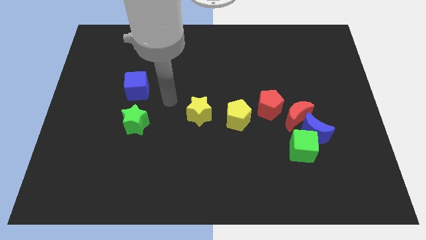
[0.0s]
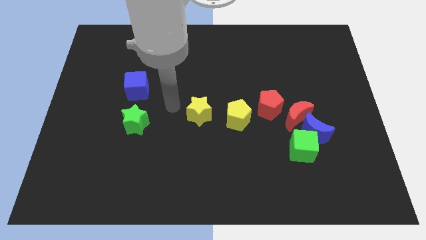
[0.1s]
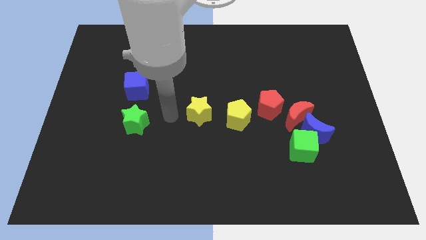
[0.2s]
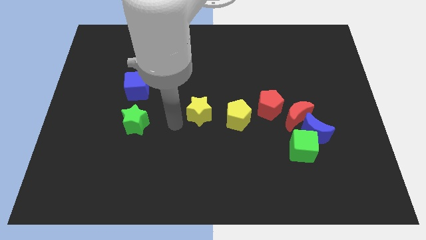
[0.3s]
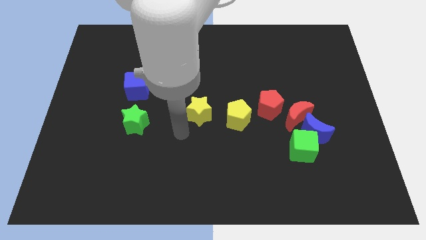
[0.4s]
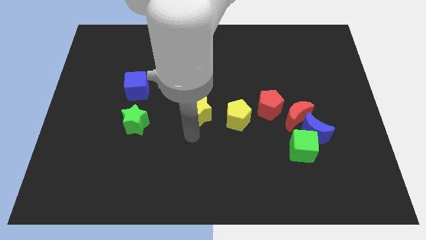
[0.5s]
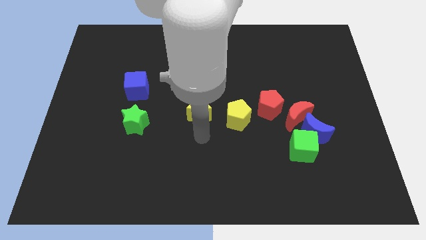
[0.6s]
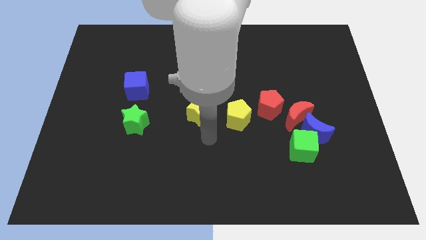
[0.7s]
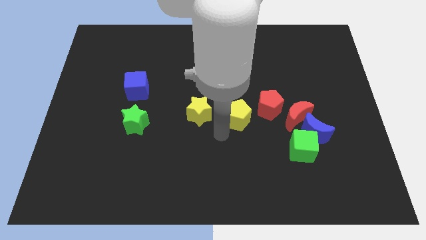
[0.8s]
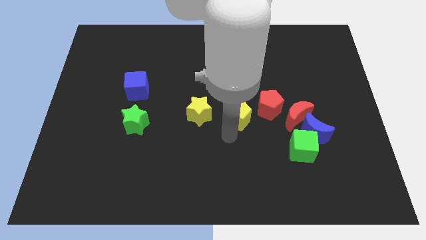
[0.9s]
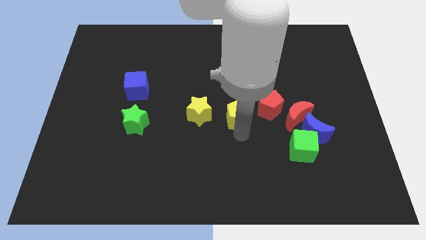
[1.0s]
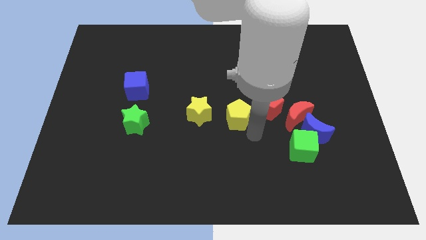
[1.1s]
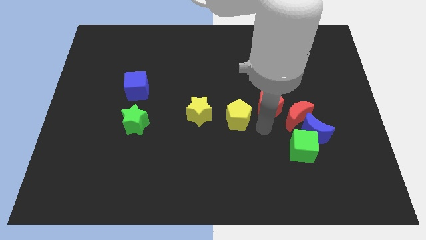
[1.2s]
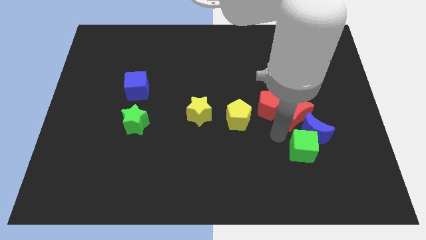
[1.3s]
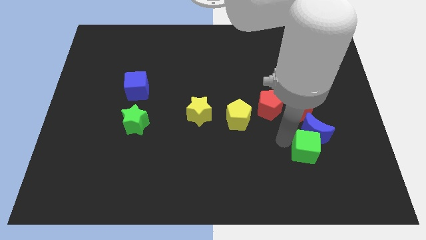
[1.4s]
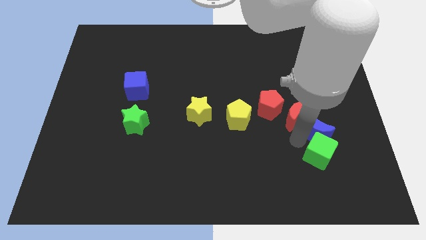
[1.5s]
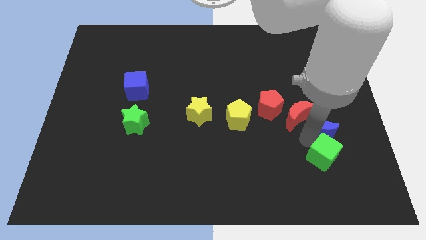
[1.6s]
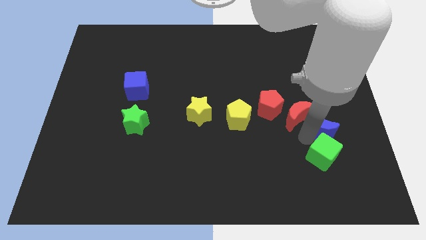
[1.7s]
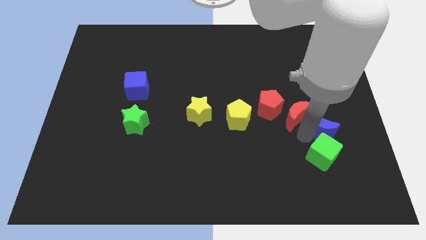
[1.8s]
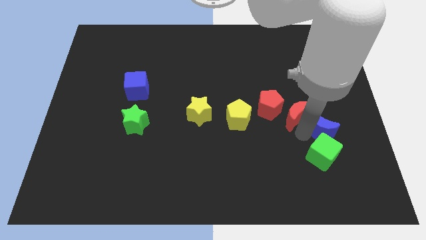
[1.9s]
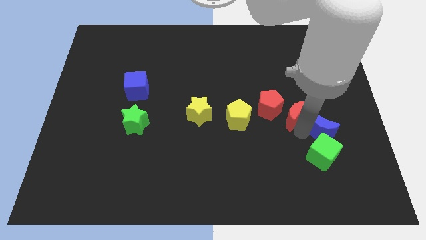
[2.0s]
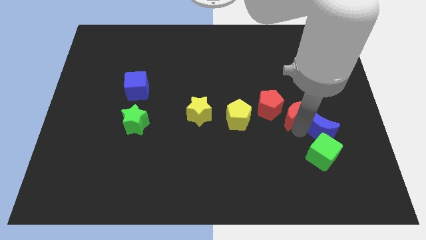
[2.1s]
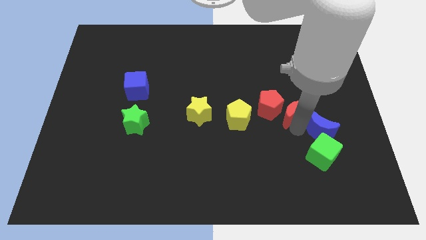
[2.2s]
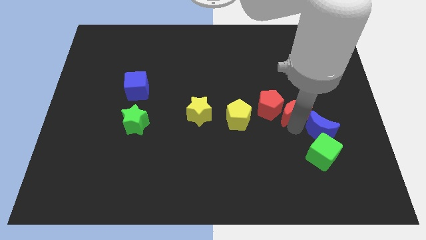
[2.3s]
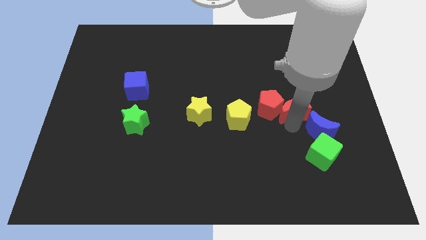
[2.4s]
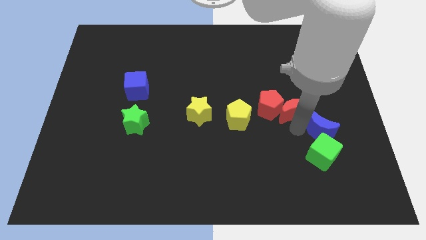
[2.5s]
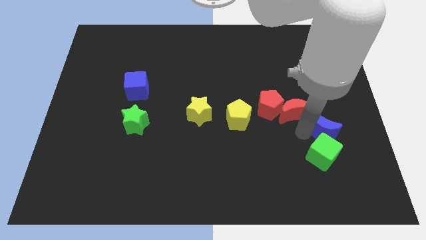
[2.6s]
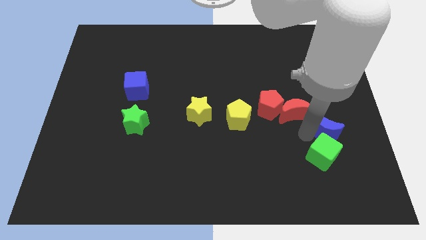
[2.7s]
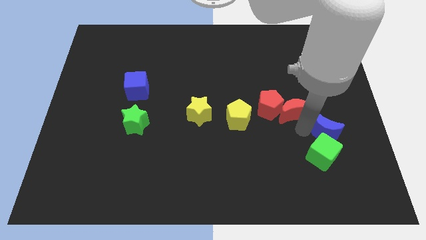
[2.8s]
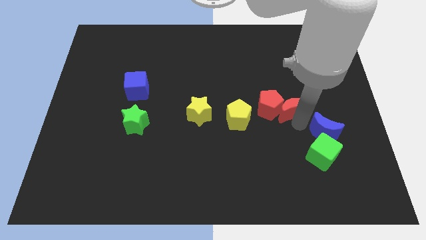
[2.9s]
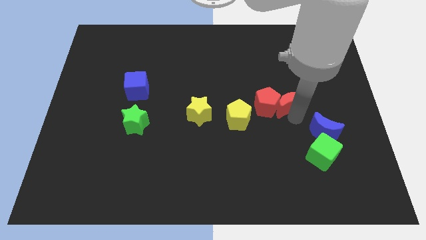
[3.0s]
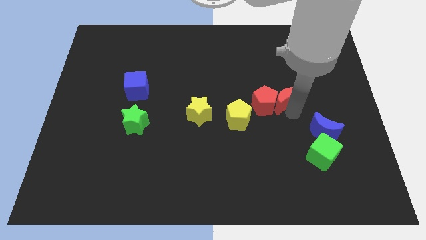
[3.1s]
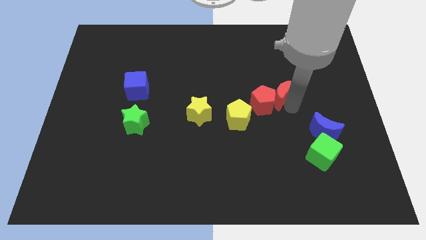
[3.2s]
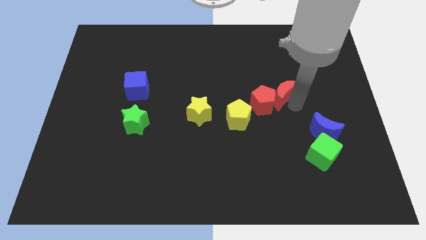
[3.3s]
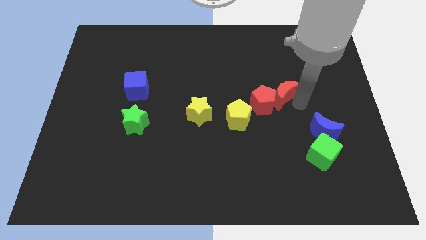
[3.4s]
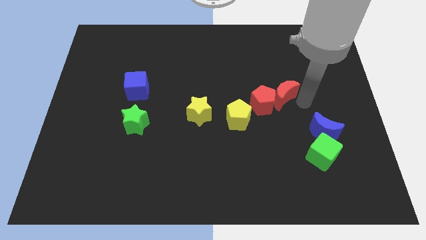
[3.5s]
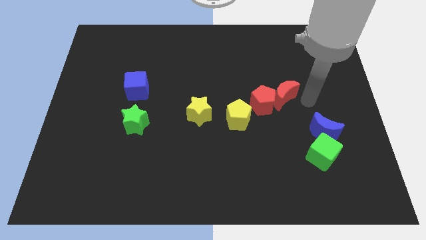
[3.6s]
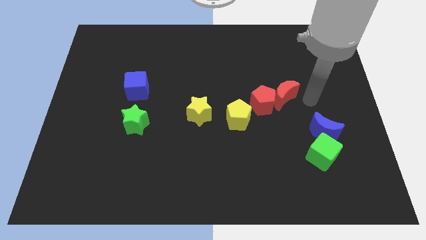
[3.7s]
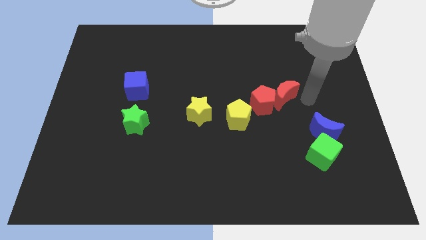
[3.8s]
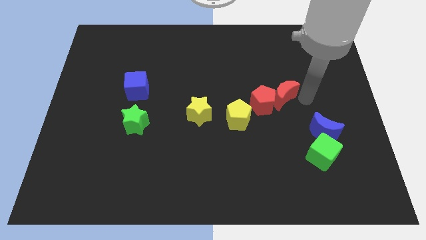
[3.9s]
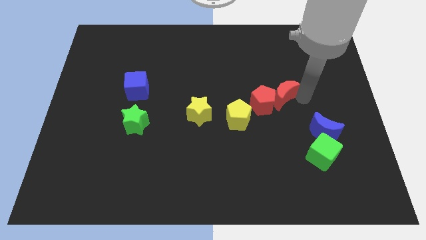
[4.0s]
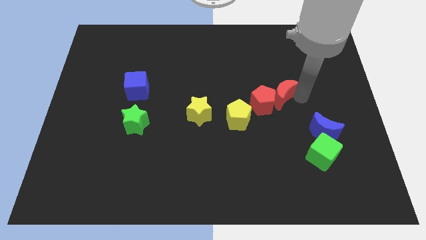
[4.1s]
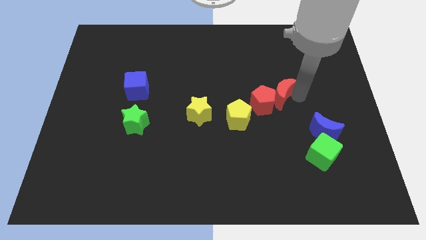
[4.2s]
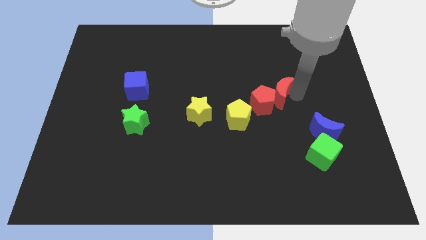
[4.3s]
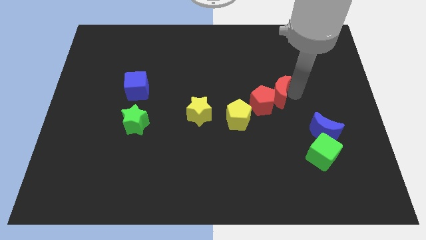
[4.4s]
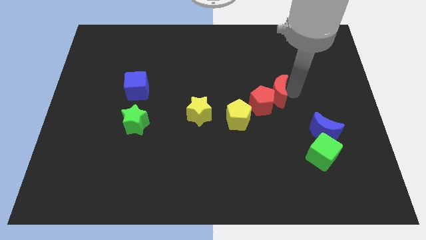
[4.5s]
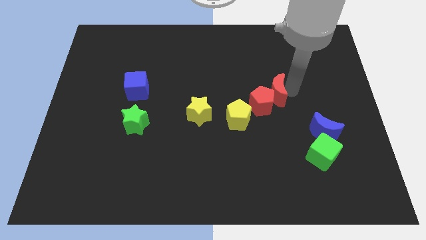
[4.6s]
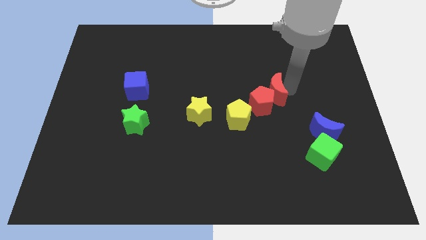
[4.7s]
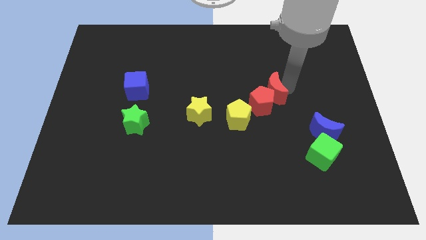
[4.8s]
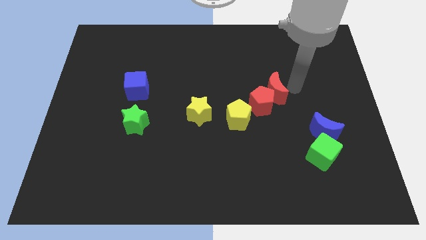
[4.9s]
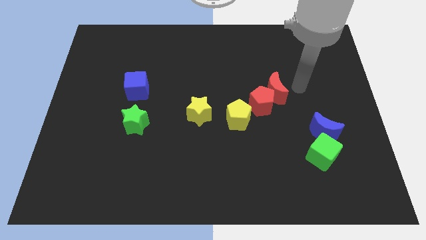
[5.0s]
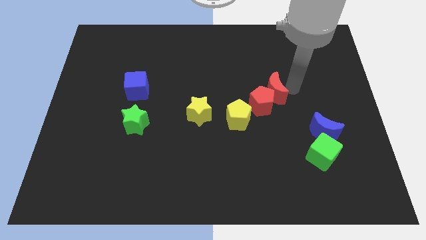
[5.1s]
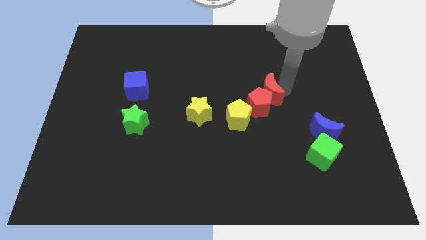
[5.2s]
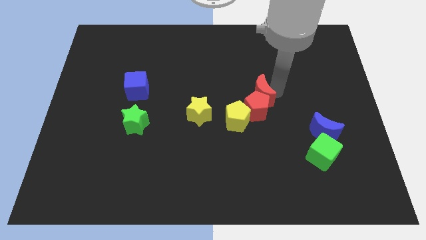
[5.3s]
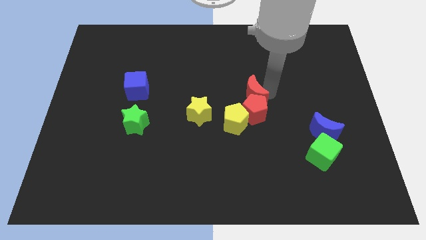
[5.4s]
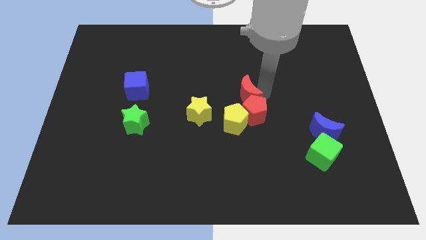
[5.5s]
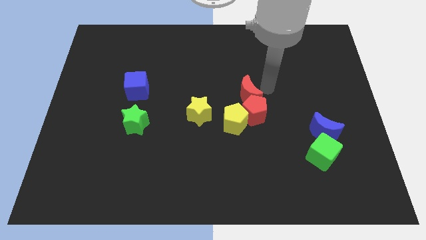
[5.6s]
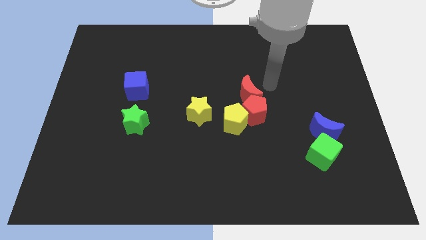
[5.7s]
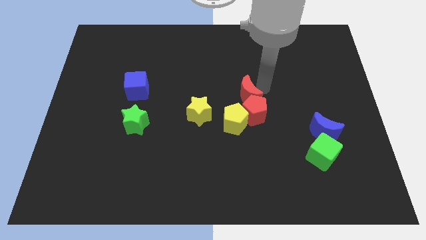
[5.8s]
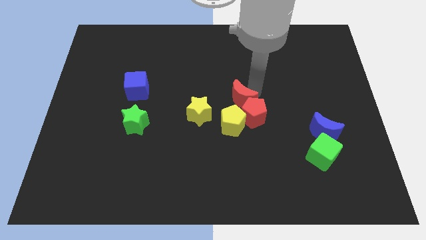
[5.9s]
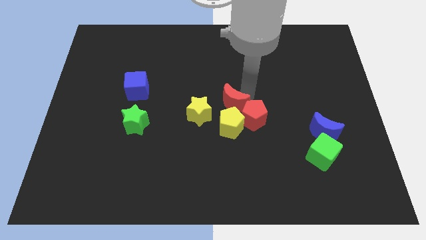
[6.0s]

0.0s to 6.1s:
put the red moon left of the red pentagon

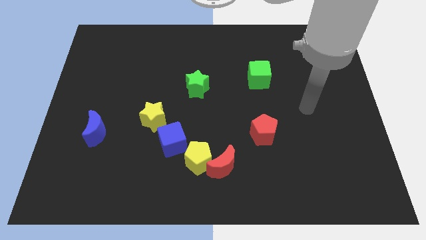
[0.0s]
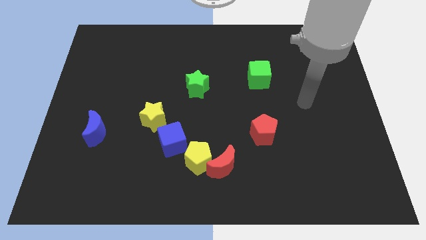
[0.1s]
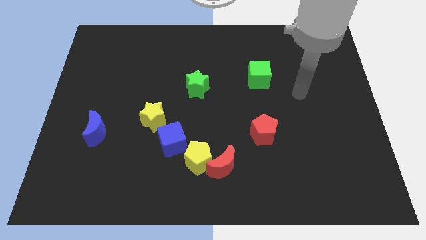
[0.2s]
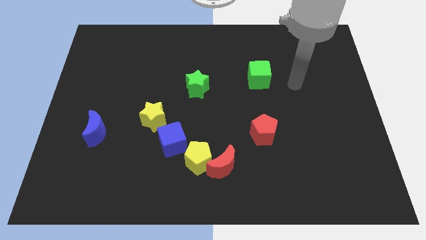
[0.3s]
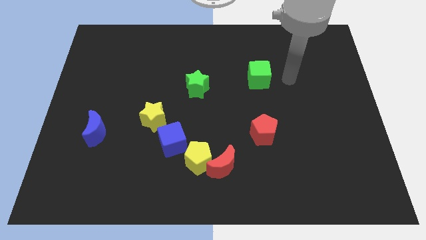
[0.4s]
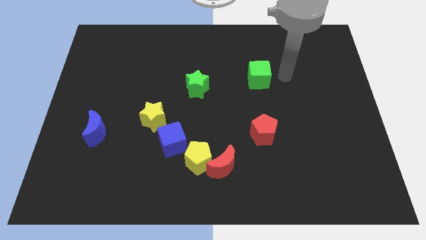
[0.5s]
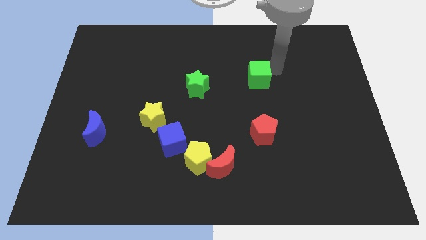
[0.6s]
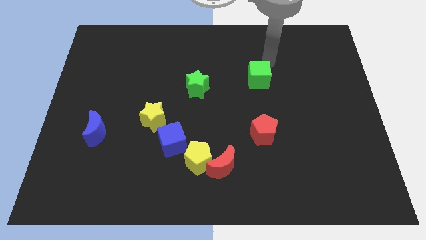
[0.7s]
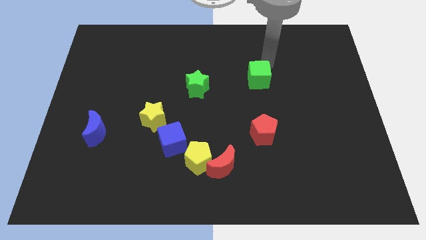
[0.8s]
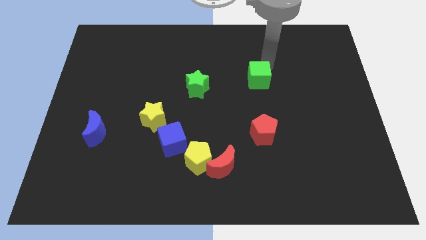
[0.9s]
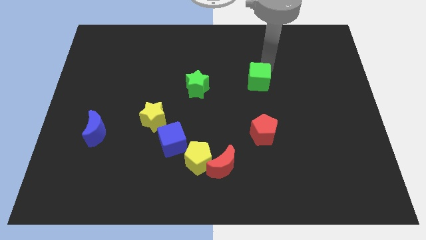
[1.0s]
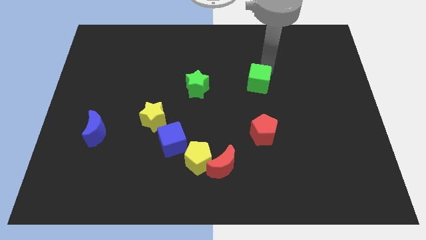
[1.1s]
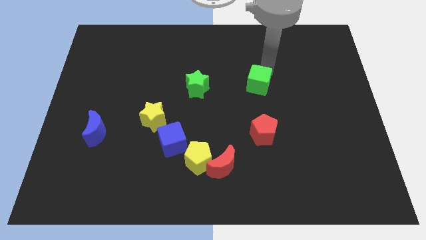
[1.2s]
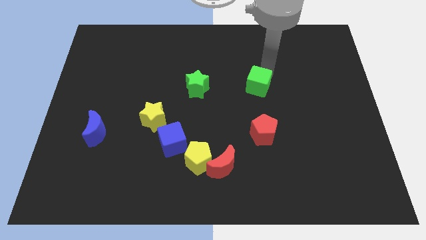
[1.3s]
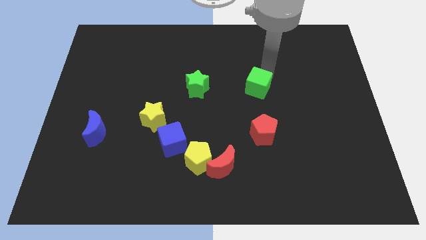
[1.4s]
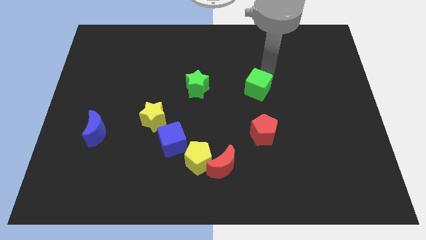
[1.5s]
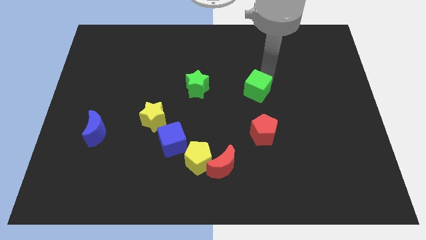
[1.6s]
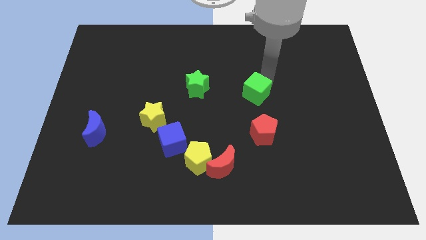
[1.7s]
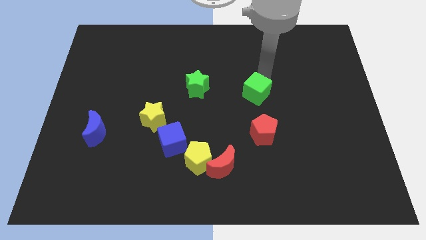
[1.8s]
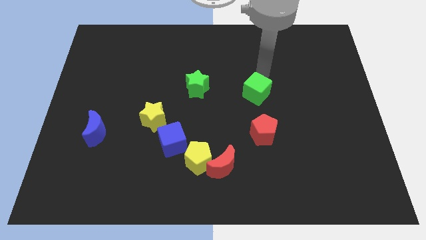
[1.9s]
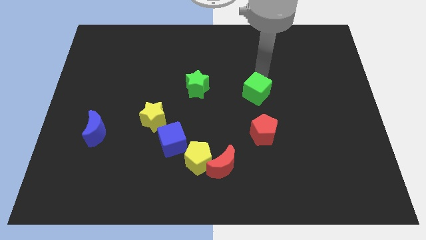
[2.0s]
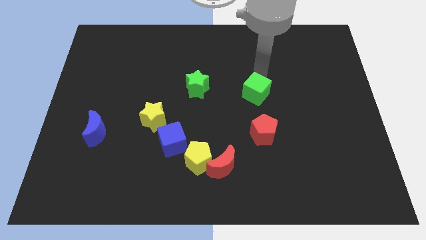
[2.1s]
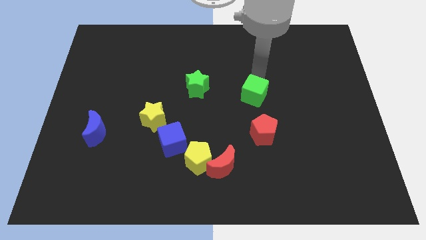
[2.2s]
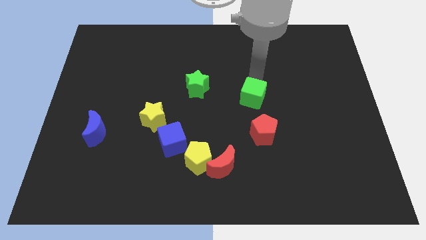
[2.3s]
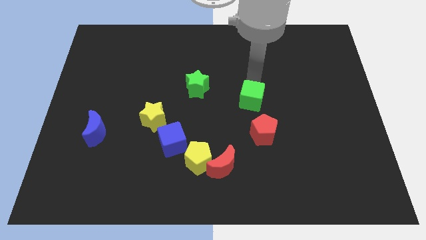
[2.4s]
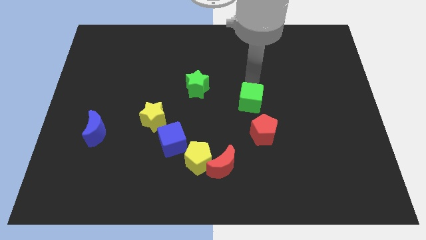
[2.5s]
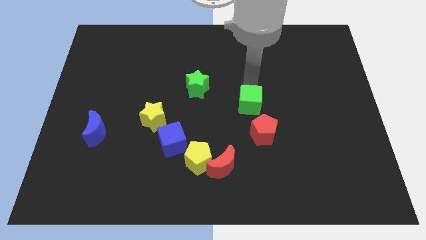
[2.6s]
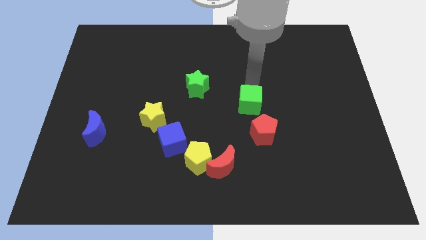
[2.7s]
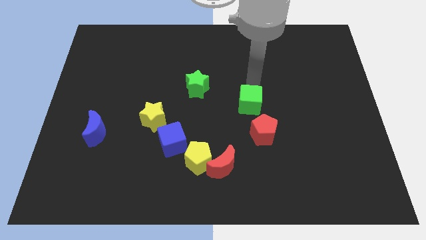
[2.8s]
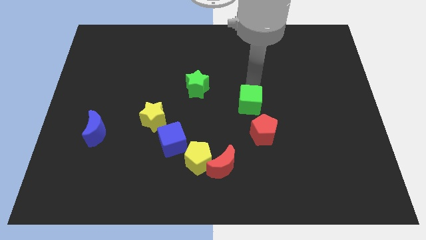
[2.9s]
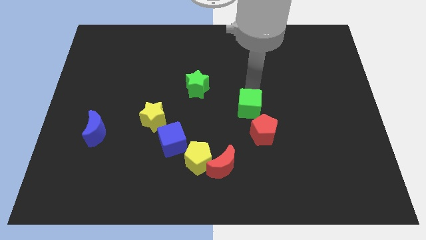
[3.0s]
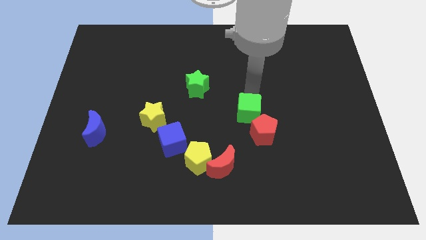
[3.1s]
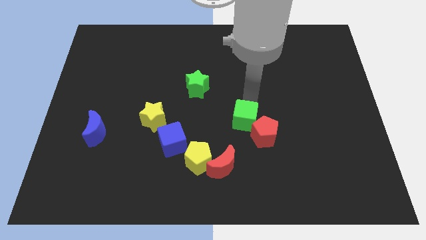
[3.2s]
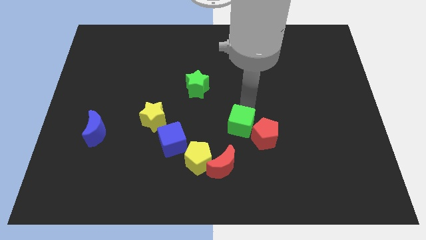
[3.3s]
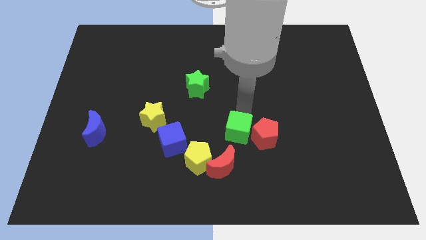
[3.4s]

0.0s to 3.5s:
slide the green cube to the top right side of the red moon
